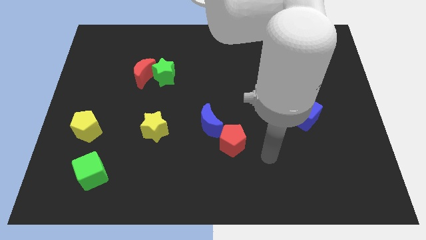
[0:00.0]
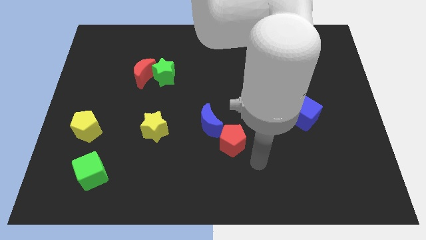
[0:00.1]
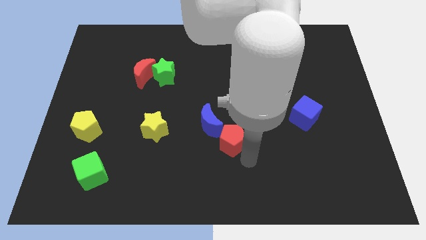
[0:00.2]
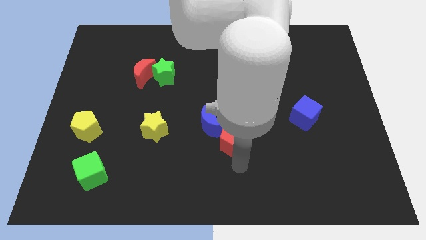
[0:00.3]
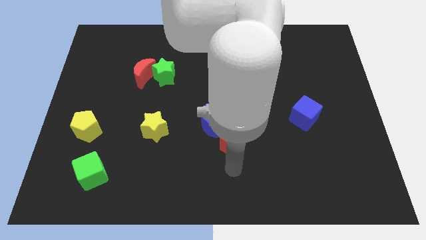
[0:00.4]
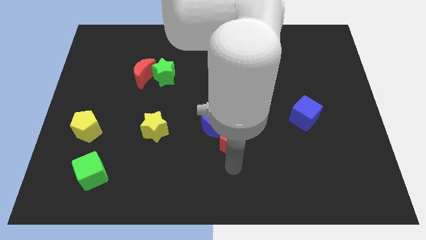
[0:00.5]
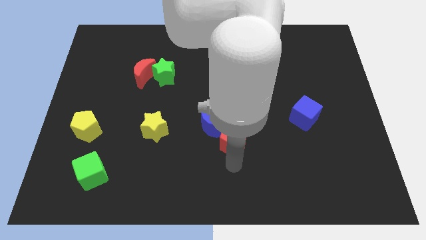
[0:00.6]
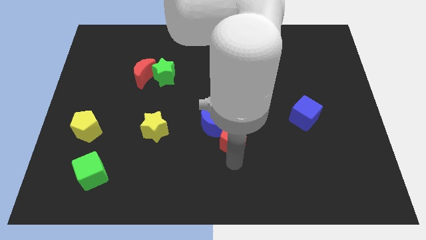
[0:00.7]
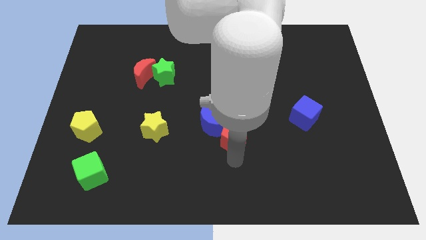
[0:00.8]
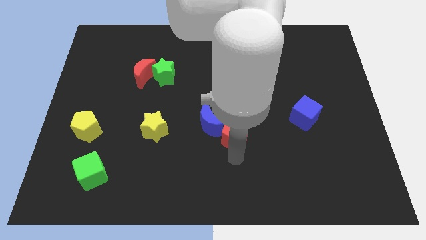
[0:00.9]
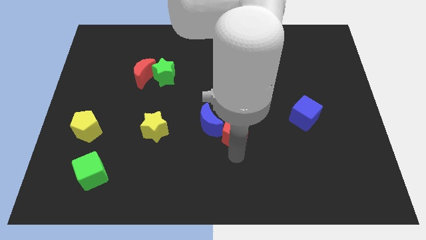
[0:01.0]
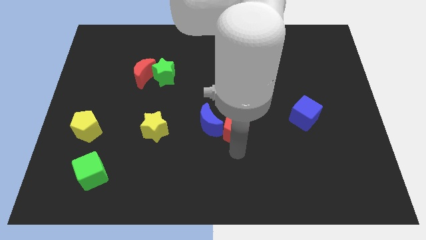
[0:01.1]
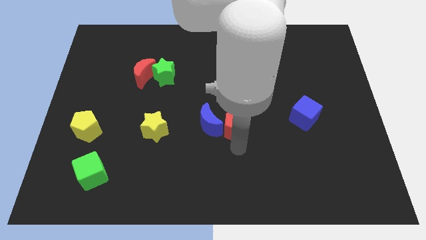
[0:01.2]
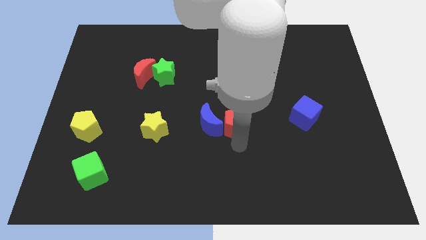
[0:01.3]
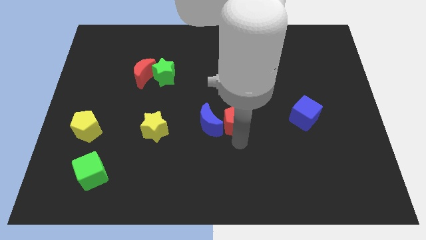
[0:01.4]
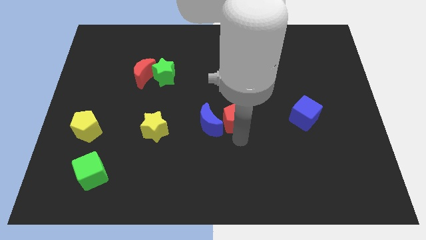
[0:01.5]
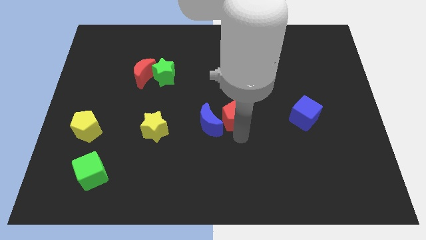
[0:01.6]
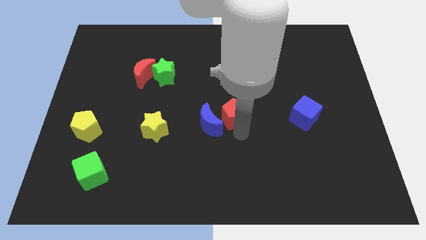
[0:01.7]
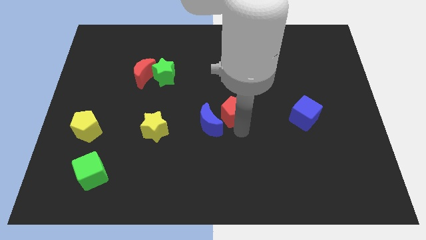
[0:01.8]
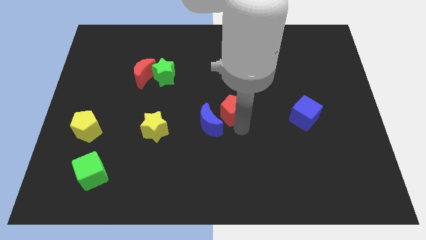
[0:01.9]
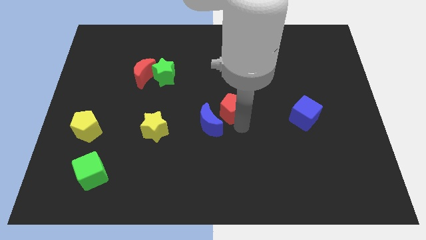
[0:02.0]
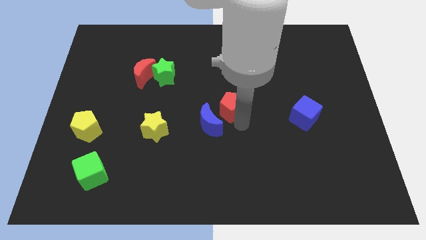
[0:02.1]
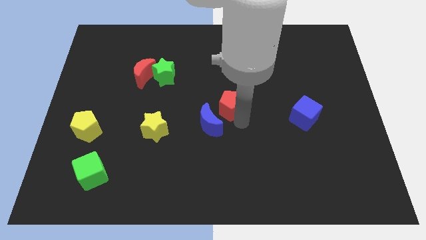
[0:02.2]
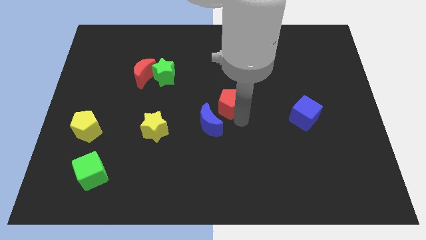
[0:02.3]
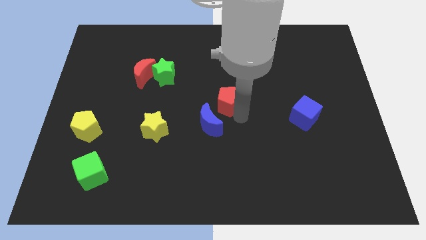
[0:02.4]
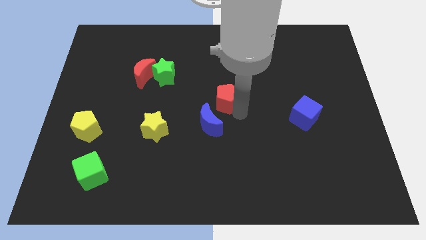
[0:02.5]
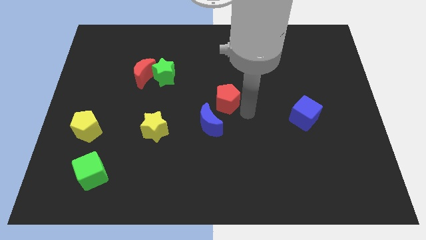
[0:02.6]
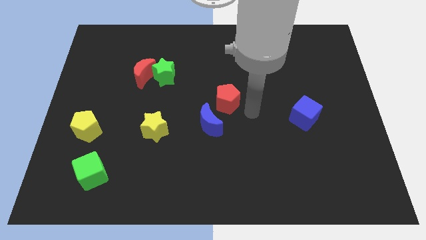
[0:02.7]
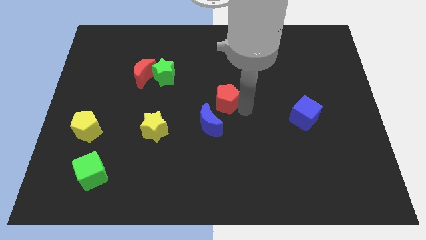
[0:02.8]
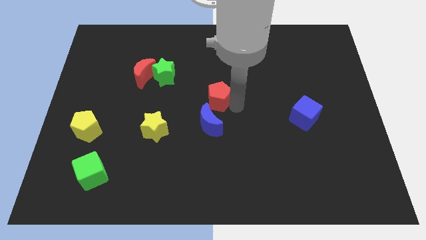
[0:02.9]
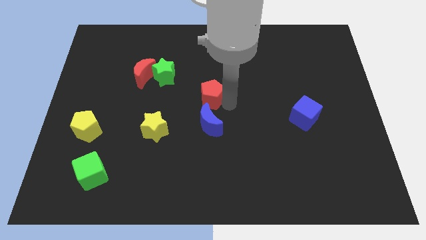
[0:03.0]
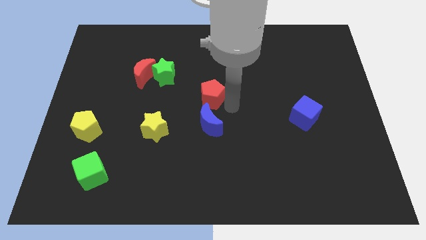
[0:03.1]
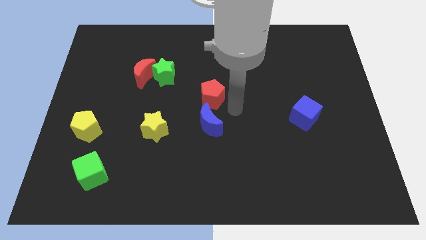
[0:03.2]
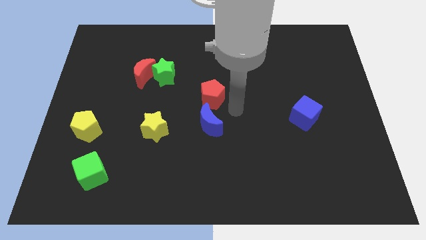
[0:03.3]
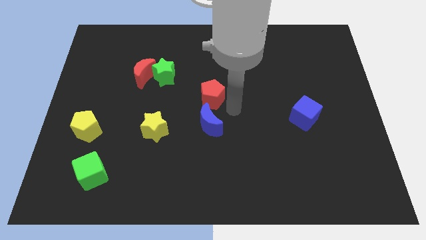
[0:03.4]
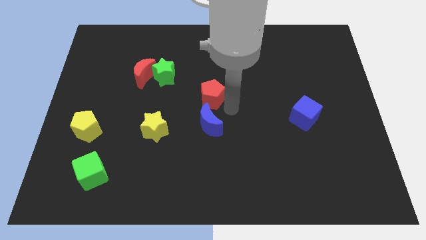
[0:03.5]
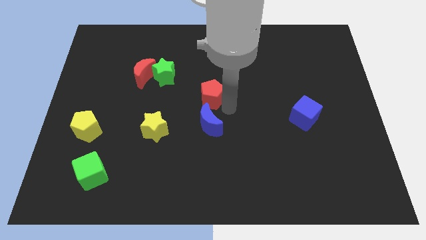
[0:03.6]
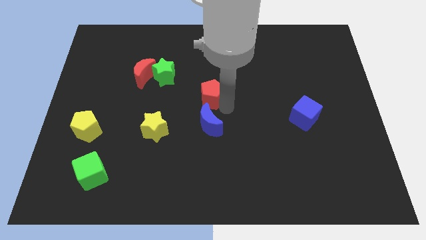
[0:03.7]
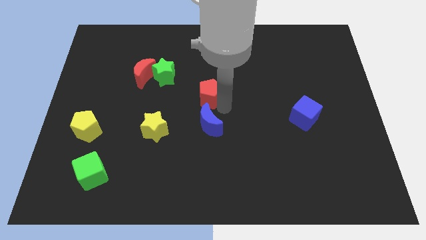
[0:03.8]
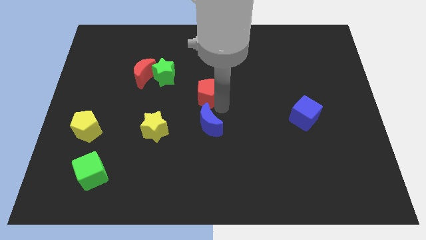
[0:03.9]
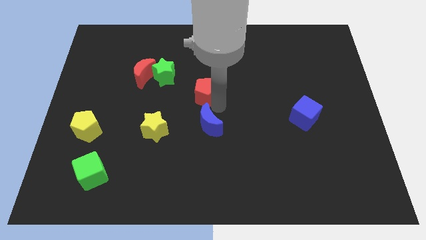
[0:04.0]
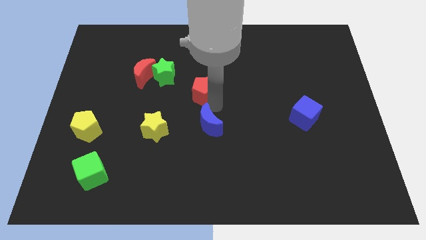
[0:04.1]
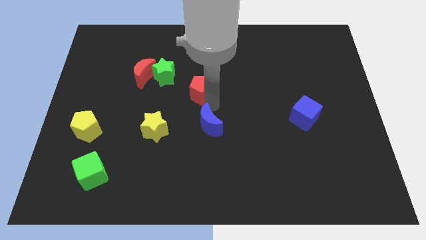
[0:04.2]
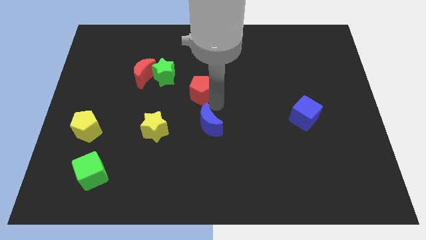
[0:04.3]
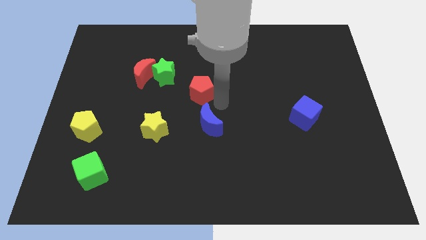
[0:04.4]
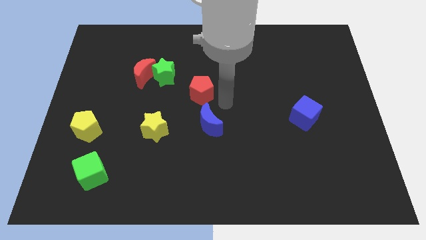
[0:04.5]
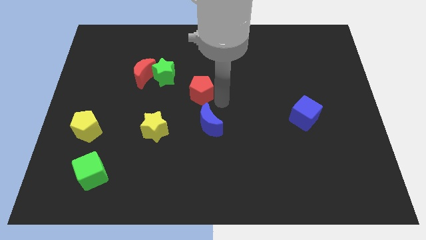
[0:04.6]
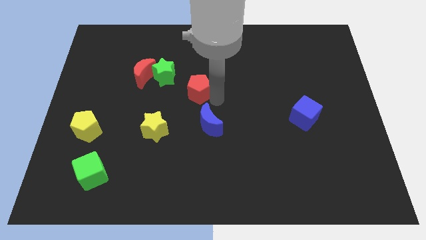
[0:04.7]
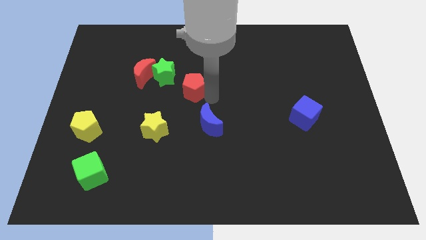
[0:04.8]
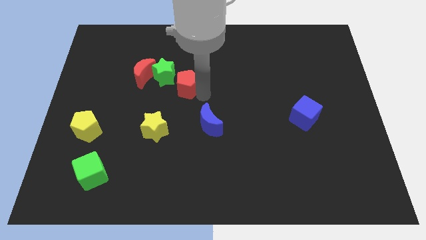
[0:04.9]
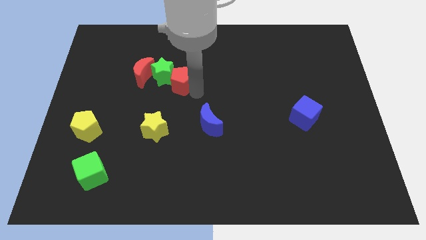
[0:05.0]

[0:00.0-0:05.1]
push the red pentagon close to the green star

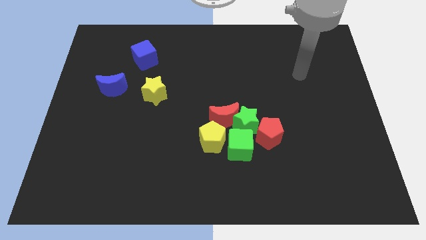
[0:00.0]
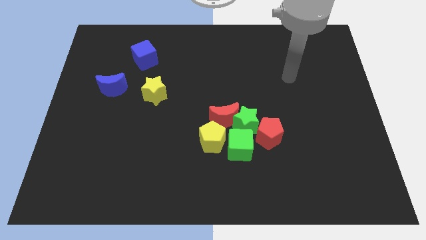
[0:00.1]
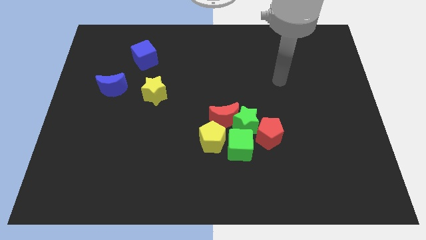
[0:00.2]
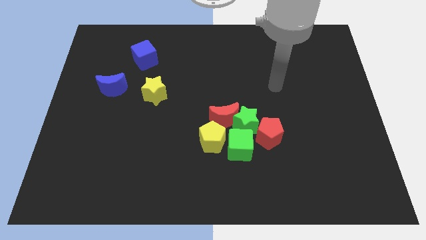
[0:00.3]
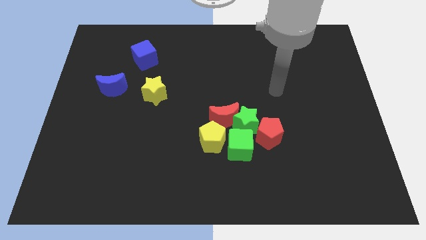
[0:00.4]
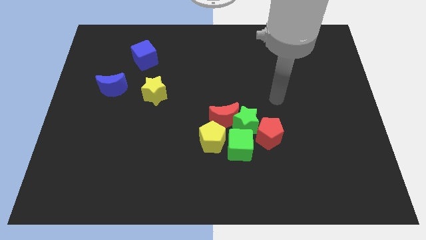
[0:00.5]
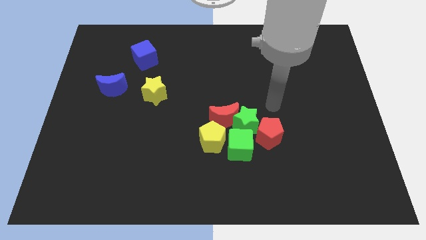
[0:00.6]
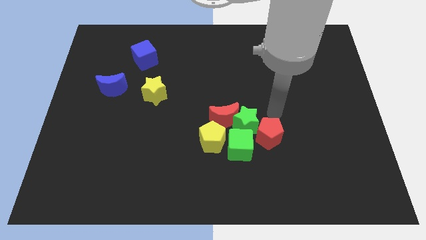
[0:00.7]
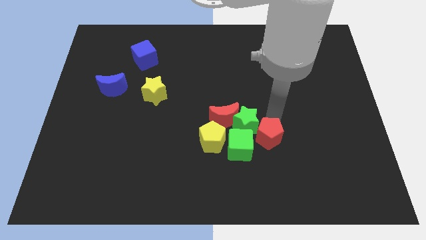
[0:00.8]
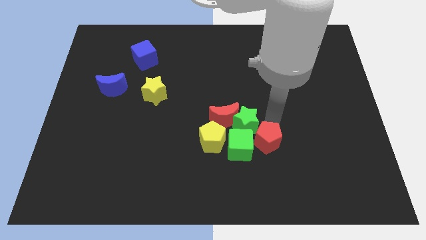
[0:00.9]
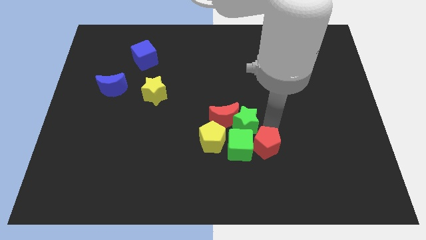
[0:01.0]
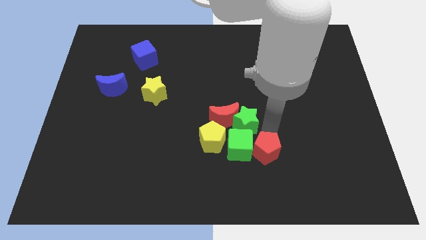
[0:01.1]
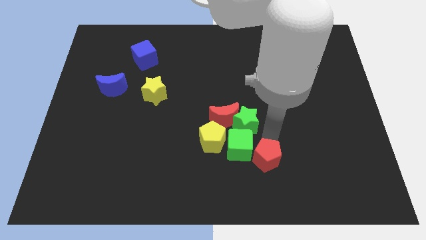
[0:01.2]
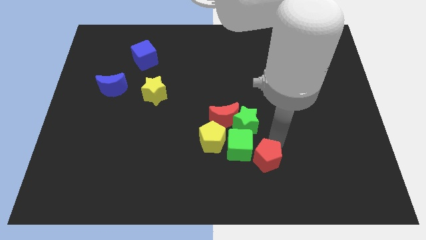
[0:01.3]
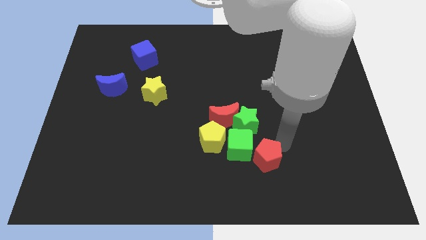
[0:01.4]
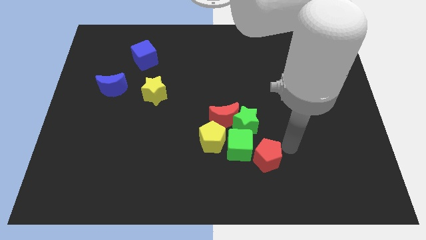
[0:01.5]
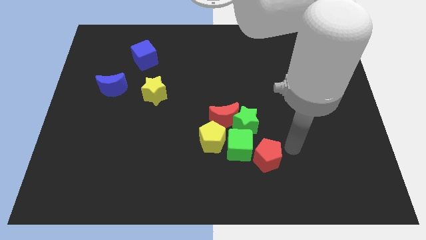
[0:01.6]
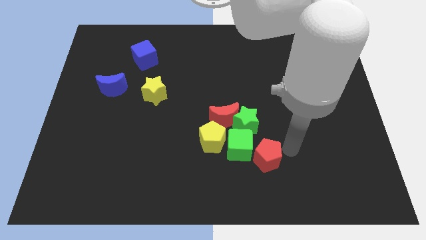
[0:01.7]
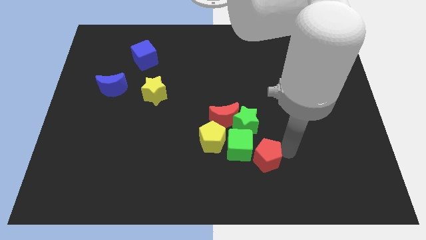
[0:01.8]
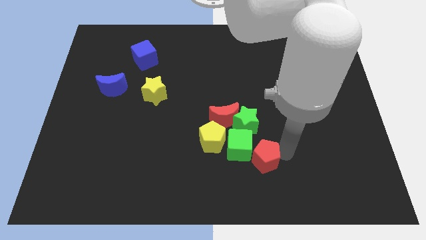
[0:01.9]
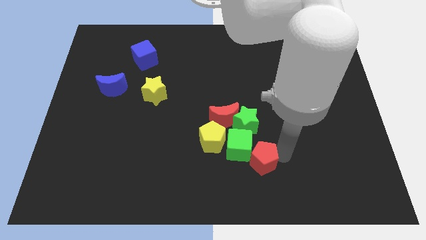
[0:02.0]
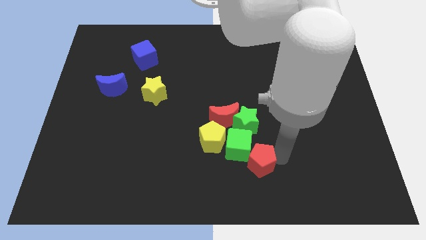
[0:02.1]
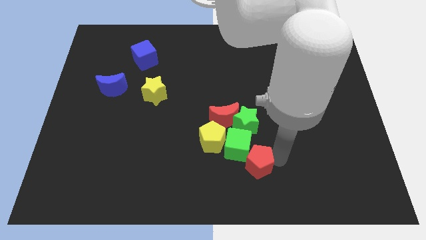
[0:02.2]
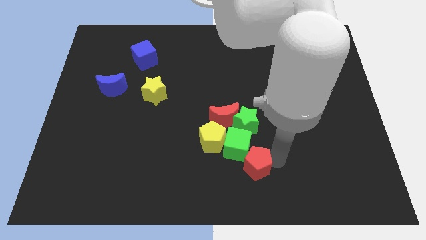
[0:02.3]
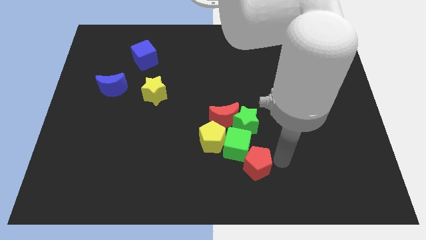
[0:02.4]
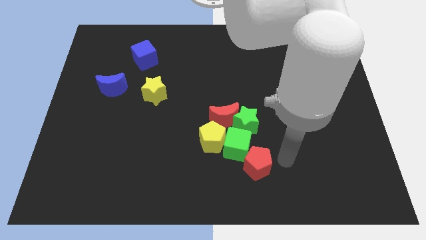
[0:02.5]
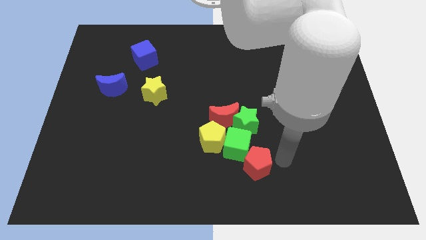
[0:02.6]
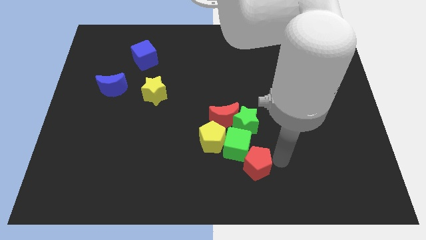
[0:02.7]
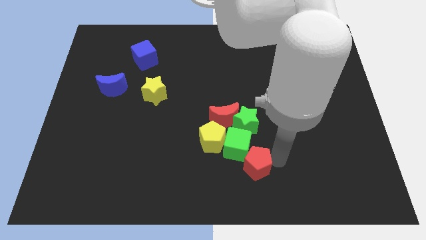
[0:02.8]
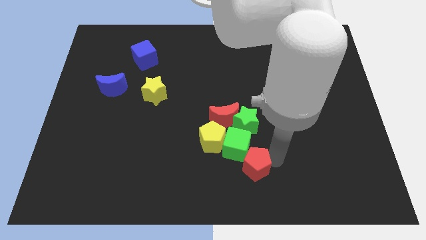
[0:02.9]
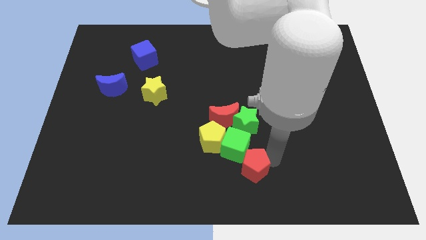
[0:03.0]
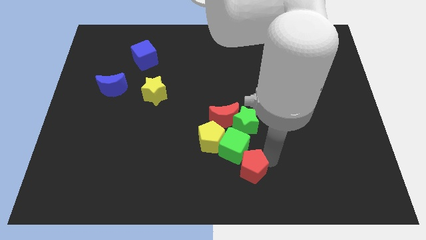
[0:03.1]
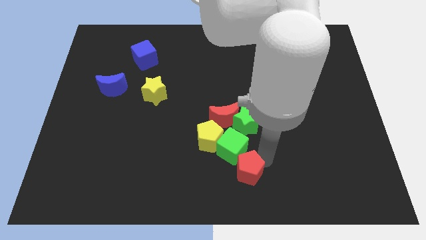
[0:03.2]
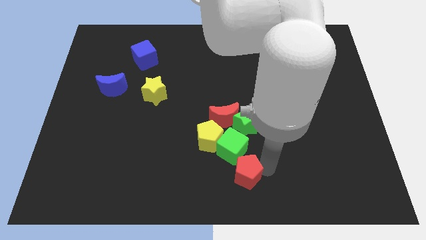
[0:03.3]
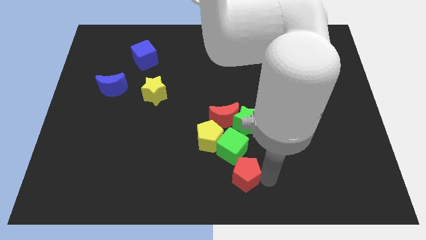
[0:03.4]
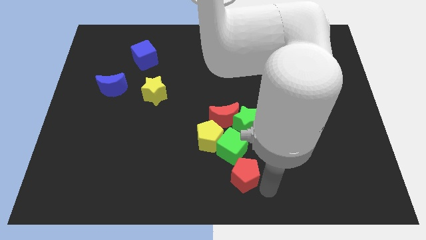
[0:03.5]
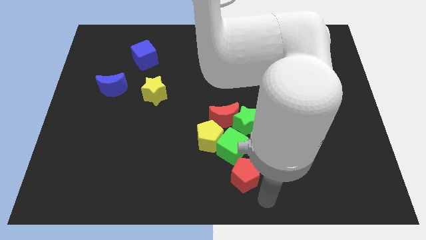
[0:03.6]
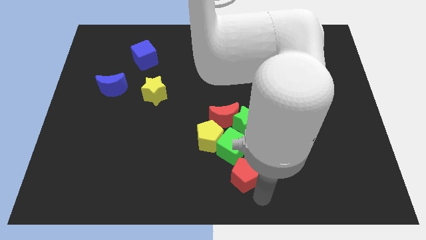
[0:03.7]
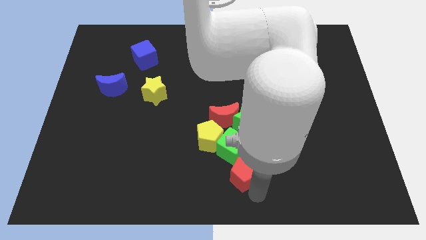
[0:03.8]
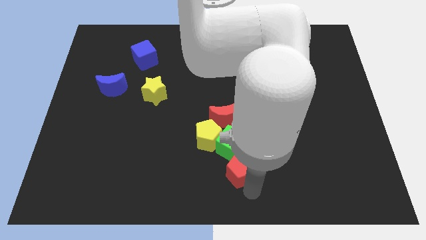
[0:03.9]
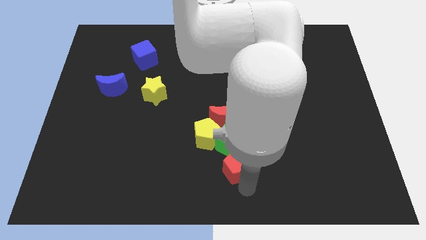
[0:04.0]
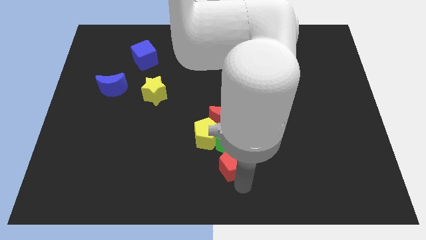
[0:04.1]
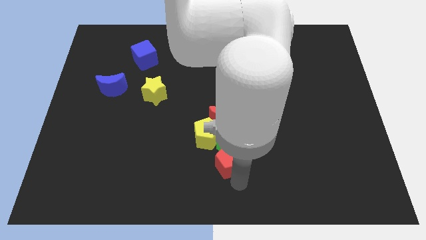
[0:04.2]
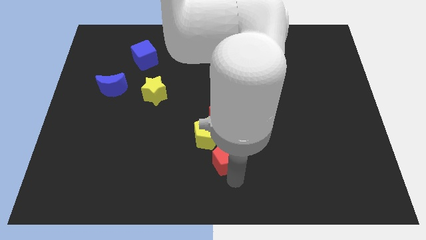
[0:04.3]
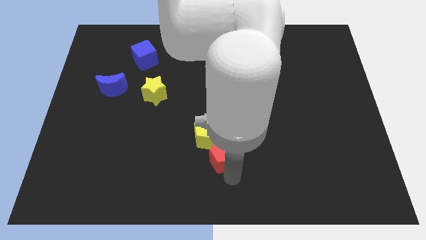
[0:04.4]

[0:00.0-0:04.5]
slide the red pentagon next to the yellow pentagon
